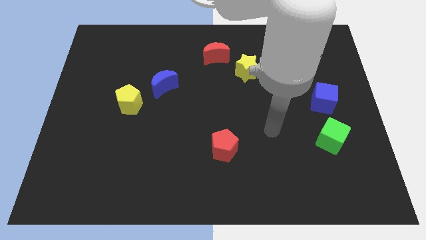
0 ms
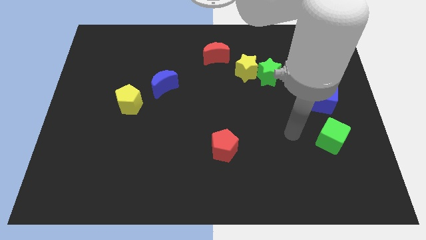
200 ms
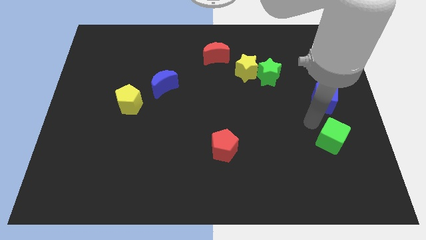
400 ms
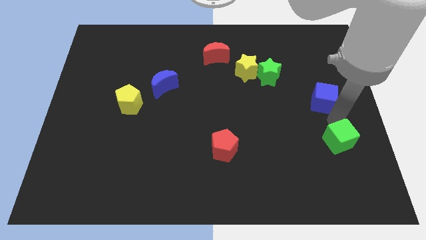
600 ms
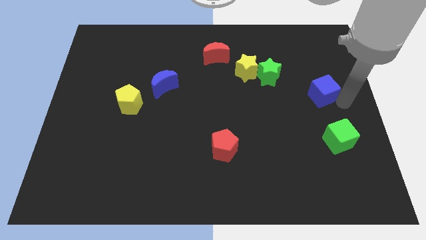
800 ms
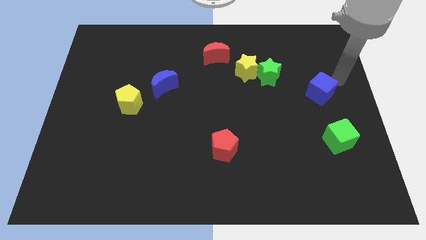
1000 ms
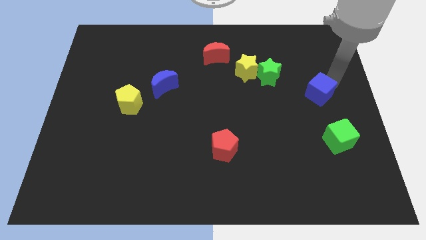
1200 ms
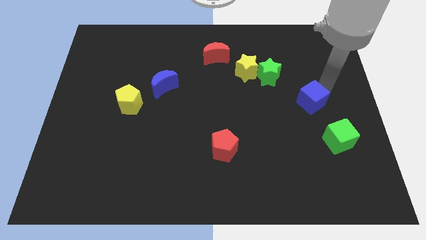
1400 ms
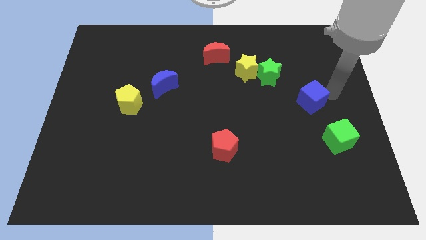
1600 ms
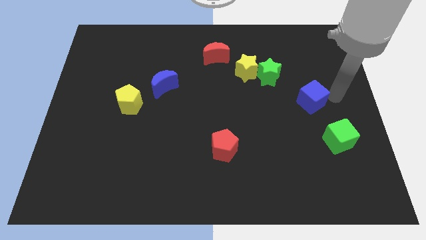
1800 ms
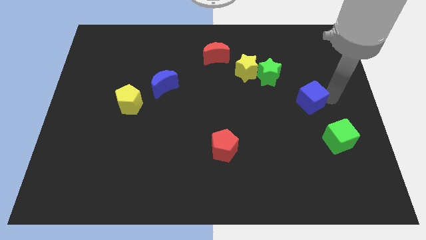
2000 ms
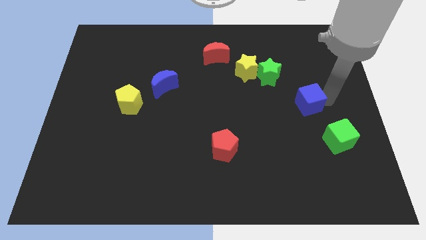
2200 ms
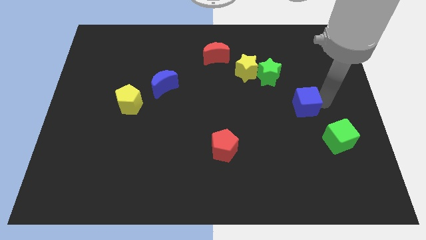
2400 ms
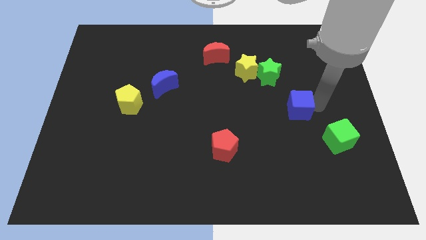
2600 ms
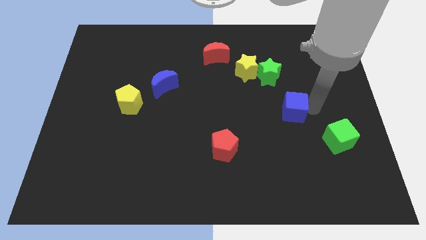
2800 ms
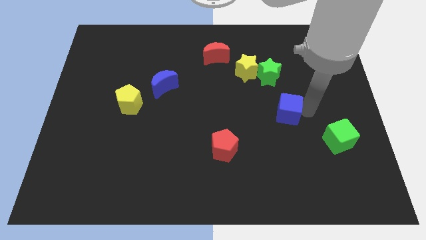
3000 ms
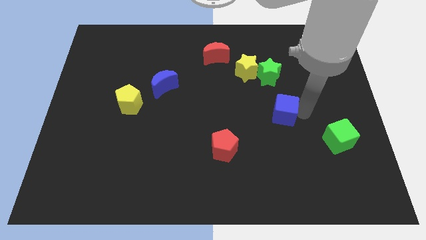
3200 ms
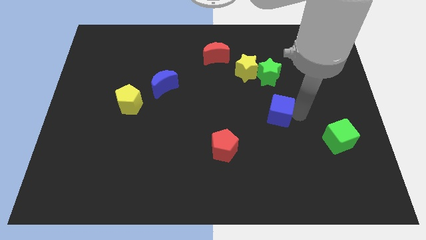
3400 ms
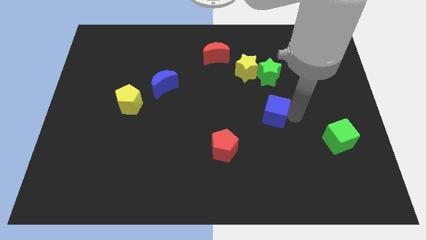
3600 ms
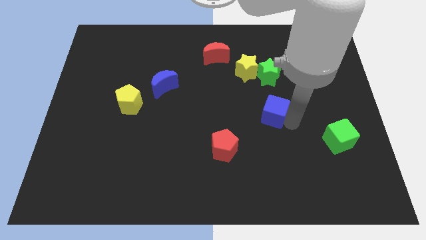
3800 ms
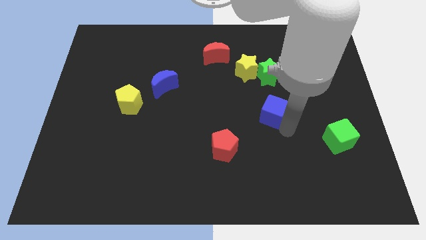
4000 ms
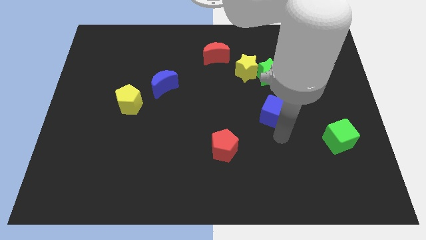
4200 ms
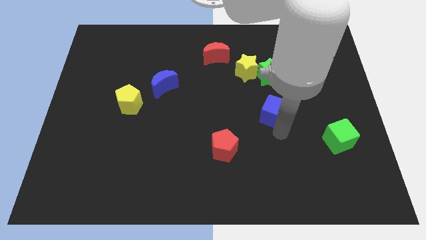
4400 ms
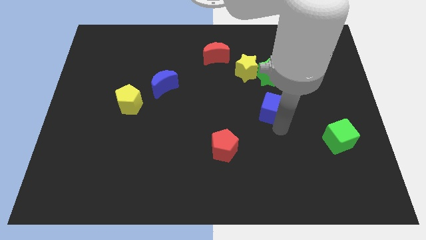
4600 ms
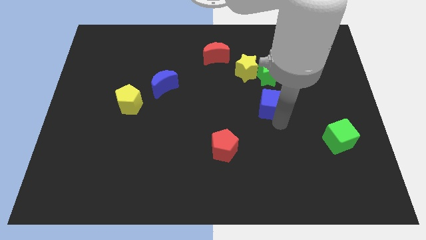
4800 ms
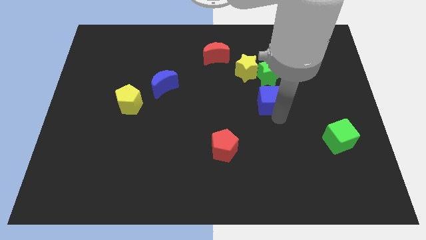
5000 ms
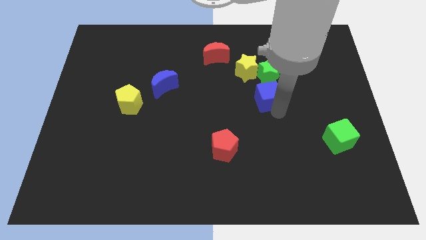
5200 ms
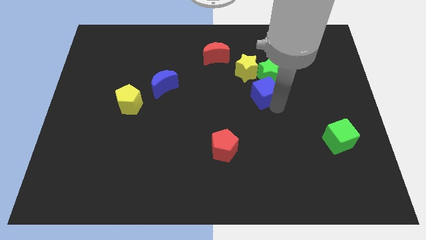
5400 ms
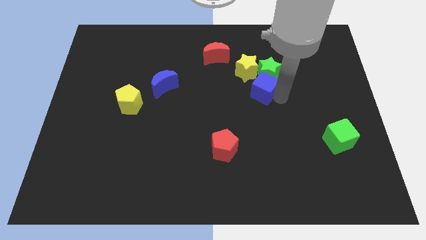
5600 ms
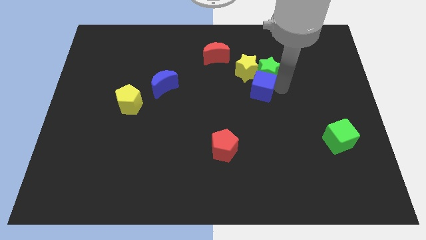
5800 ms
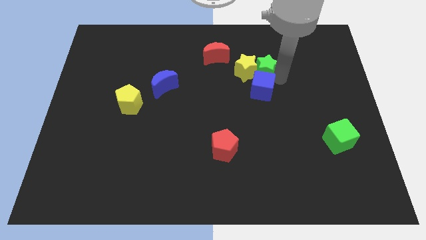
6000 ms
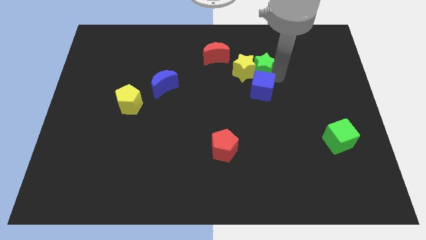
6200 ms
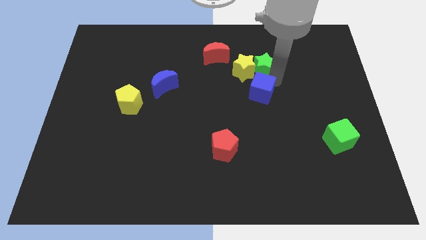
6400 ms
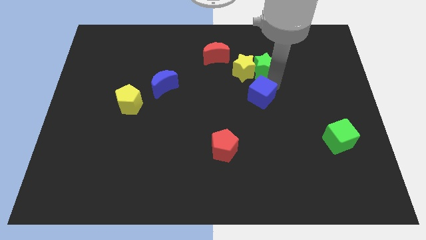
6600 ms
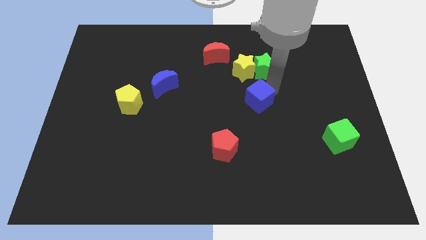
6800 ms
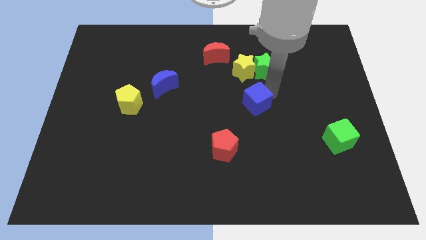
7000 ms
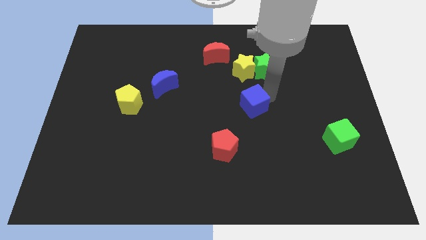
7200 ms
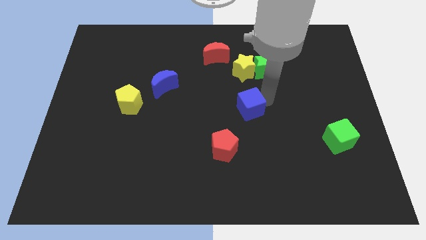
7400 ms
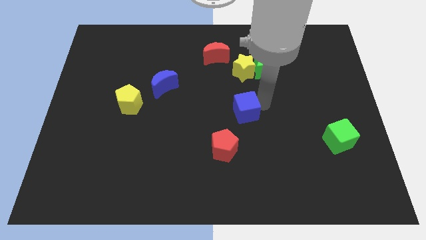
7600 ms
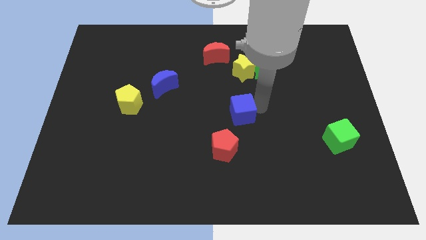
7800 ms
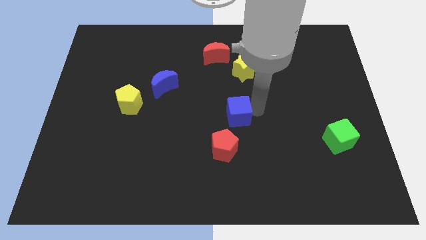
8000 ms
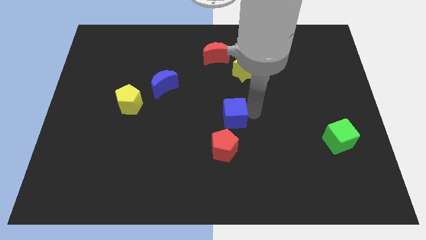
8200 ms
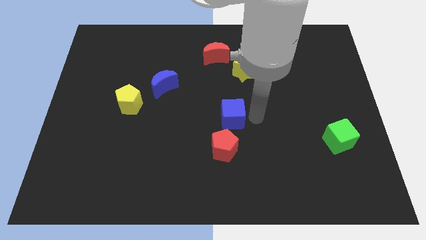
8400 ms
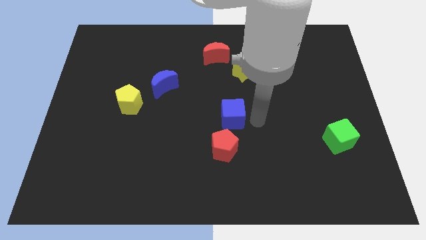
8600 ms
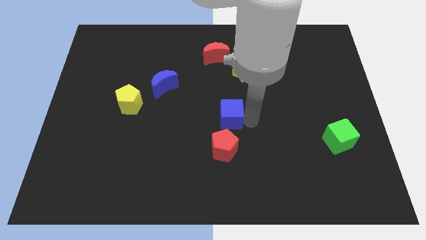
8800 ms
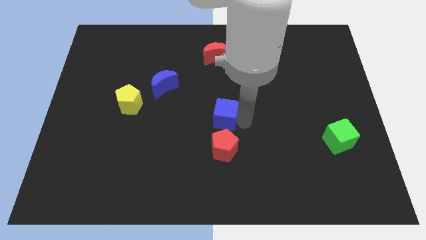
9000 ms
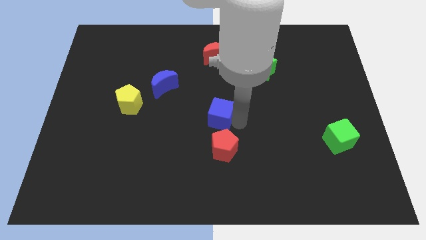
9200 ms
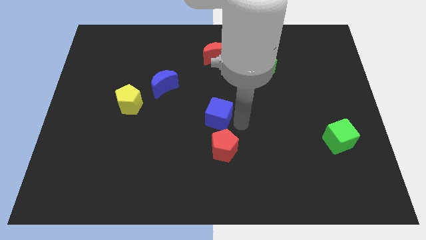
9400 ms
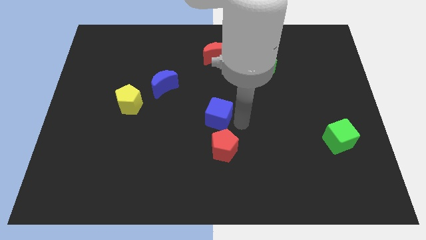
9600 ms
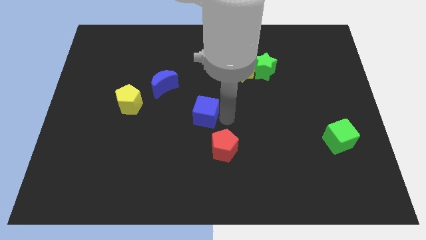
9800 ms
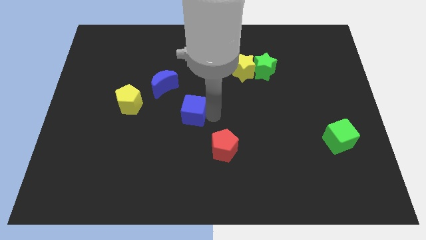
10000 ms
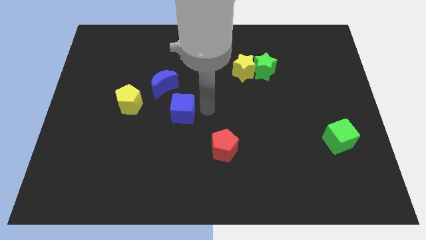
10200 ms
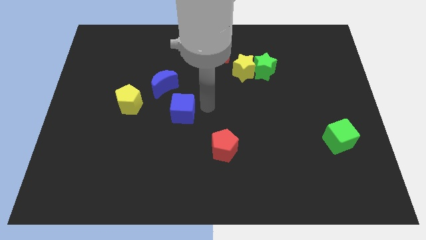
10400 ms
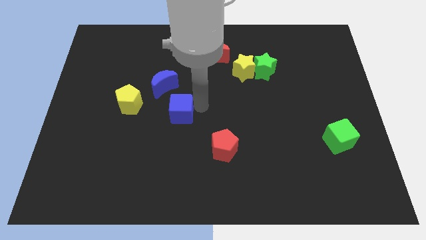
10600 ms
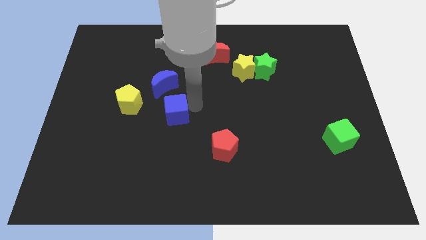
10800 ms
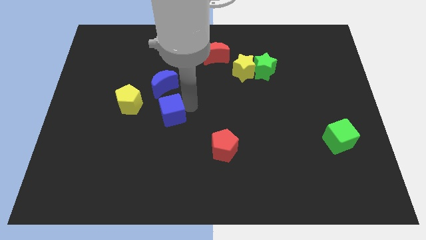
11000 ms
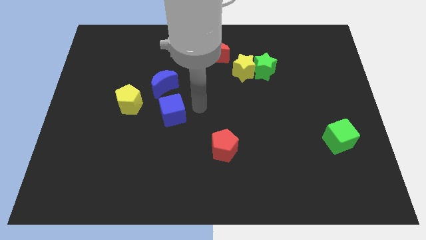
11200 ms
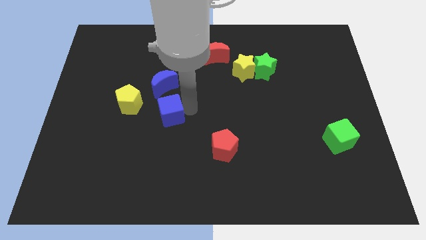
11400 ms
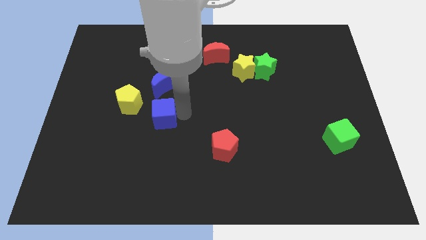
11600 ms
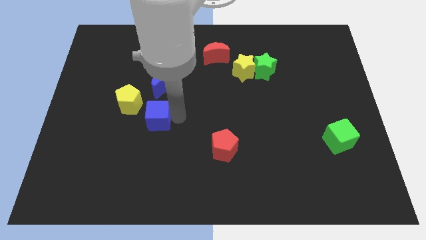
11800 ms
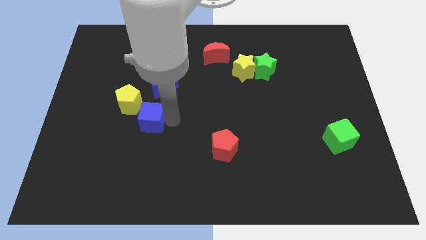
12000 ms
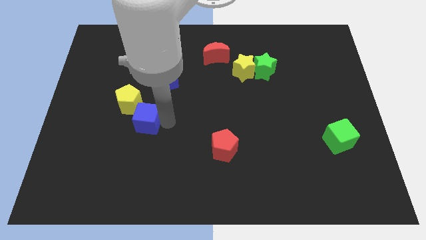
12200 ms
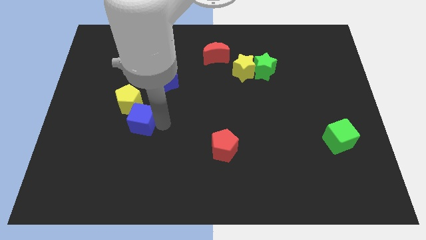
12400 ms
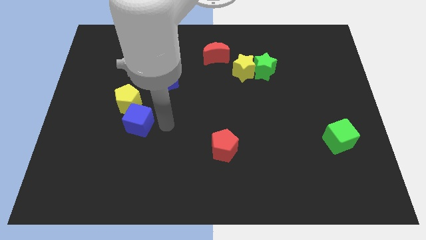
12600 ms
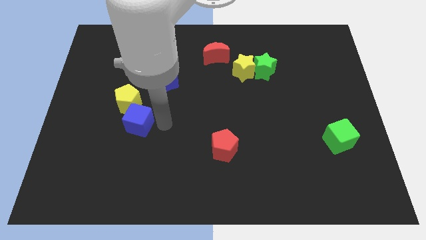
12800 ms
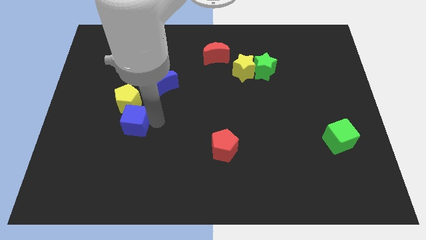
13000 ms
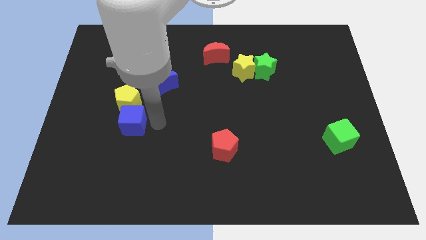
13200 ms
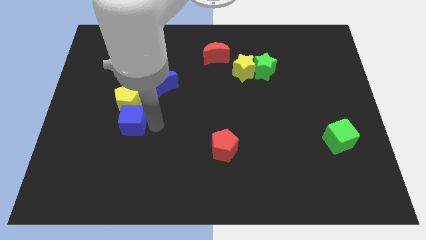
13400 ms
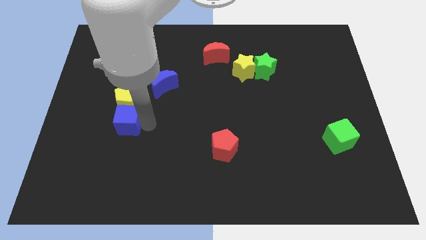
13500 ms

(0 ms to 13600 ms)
move the blue cube diagonally down and to the left of the yellow pentagon

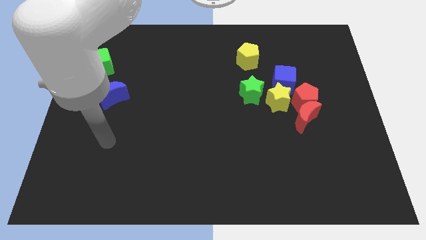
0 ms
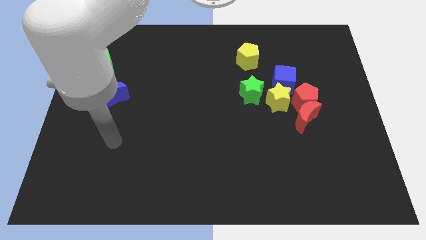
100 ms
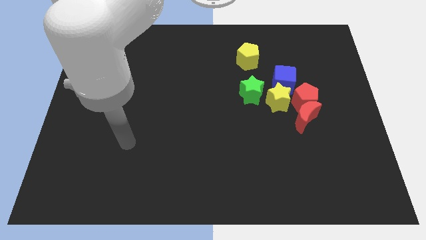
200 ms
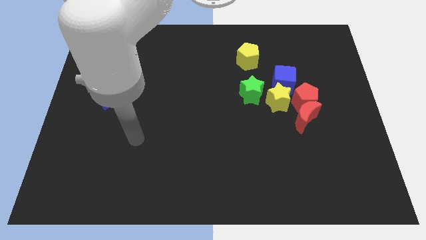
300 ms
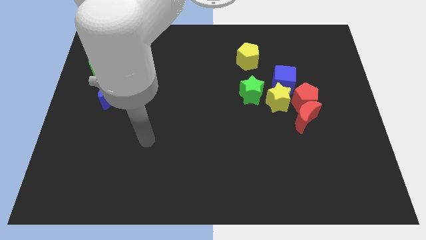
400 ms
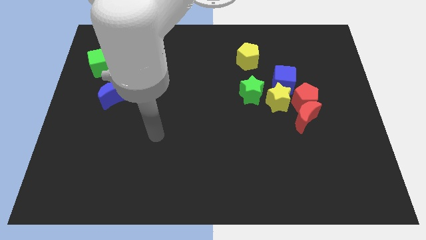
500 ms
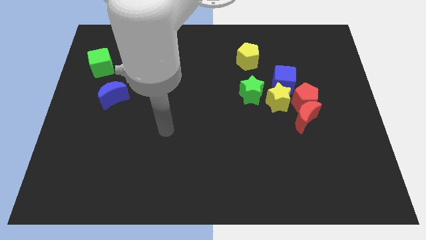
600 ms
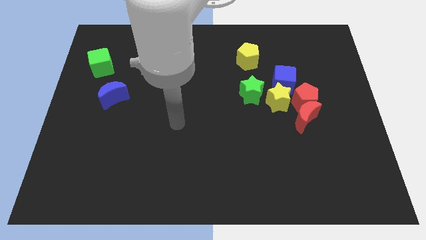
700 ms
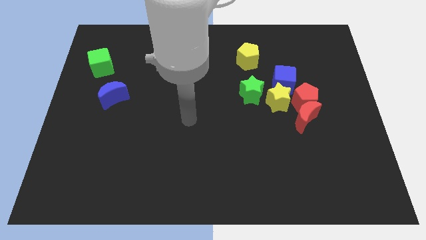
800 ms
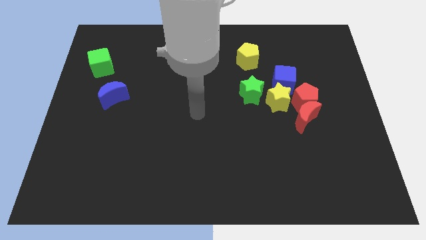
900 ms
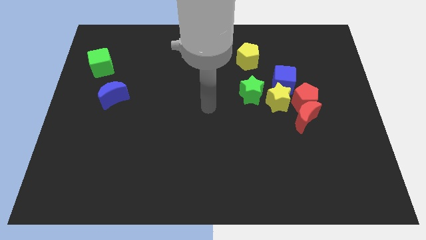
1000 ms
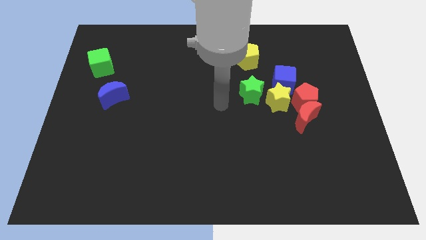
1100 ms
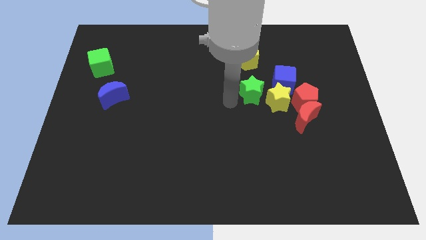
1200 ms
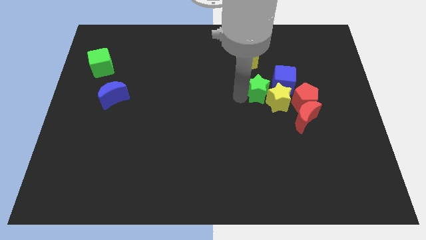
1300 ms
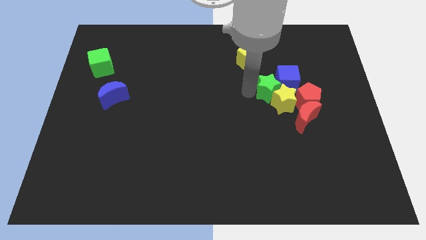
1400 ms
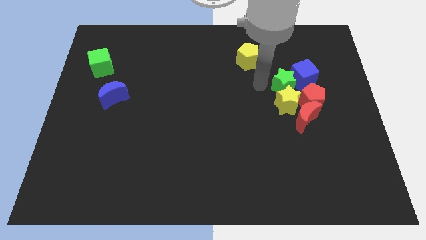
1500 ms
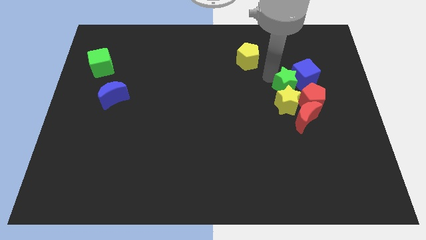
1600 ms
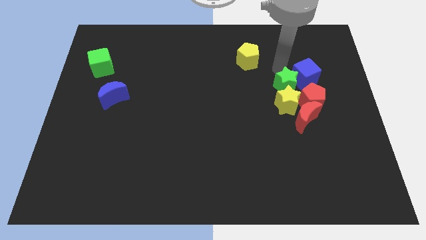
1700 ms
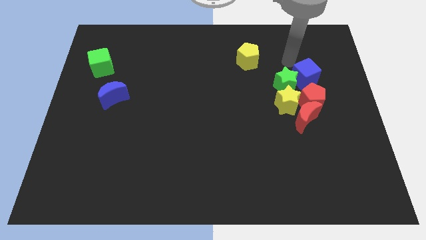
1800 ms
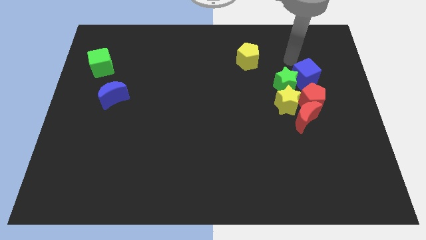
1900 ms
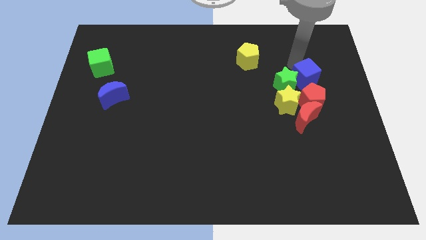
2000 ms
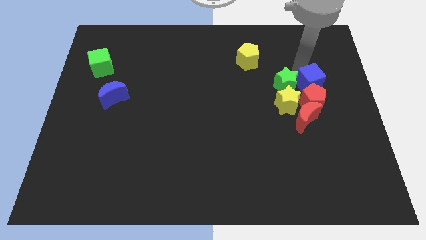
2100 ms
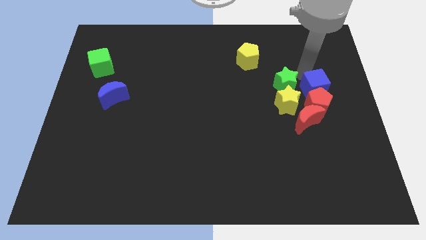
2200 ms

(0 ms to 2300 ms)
put the blue cube to the top right side of the red moon
